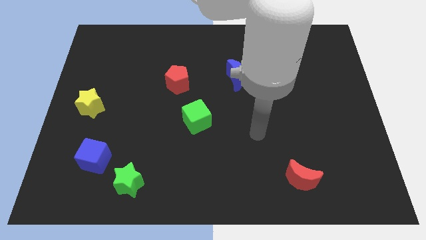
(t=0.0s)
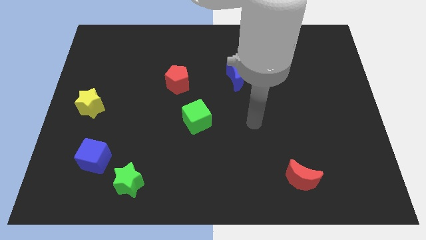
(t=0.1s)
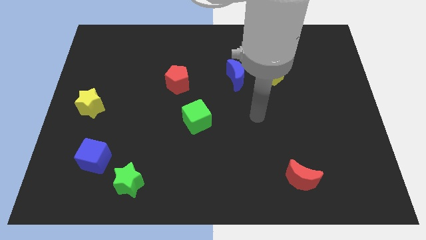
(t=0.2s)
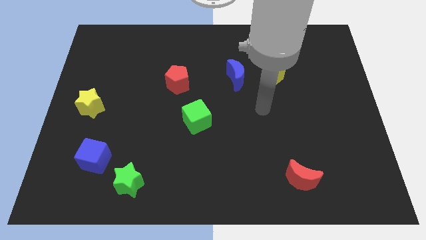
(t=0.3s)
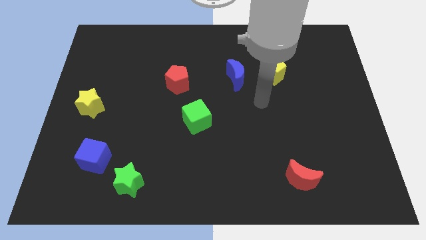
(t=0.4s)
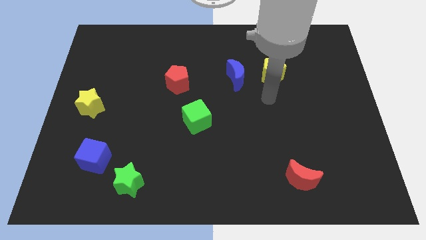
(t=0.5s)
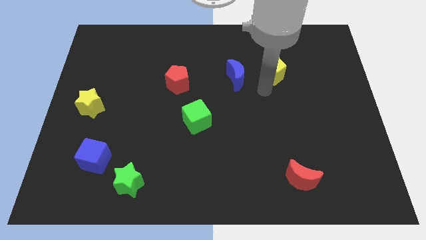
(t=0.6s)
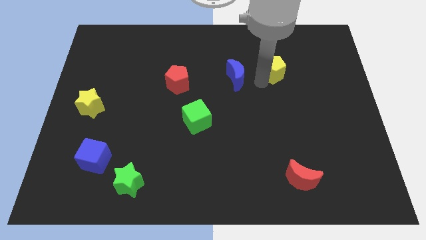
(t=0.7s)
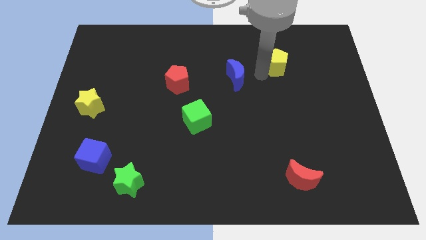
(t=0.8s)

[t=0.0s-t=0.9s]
move the blue moon away from the yellow pentagon

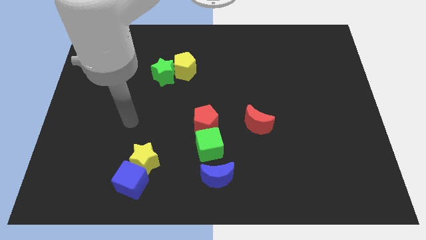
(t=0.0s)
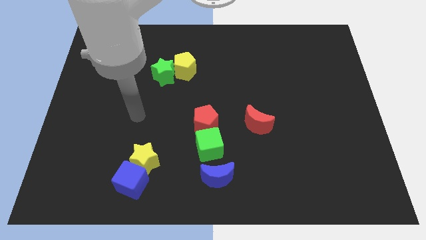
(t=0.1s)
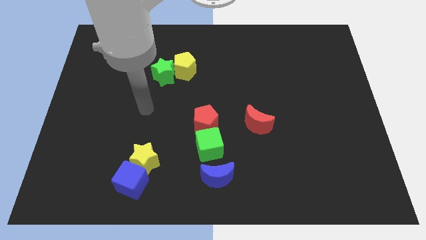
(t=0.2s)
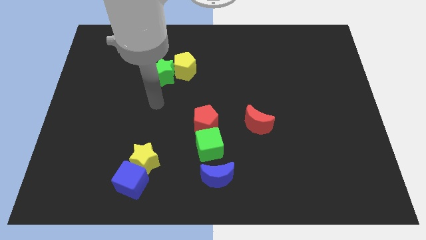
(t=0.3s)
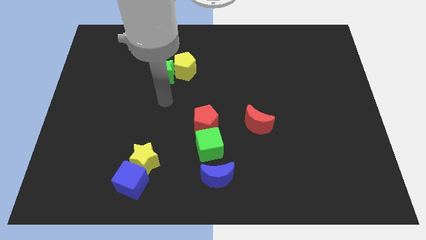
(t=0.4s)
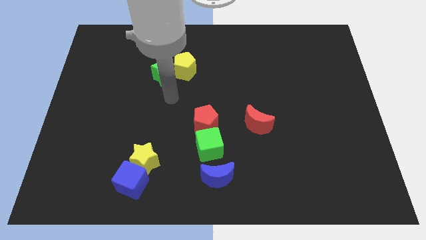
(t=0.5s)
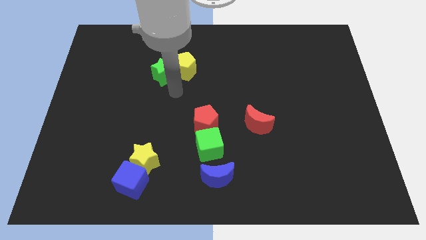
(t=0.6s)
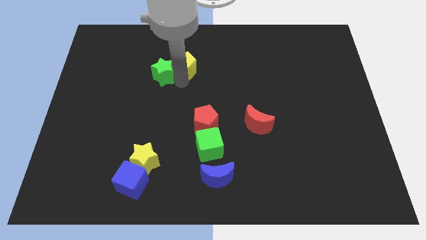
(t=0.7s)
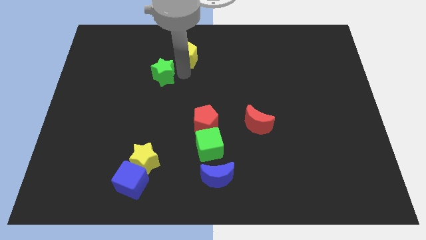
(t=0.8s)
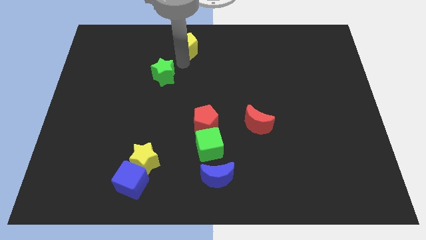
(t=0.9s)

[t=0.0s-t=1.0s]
separate the green star from the yellow pentagon

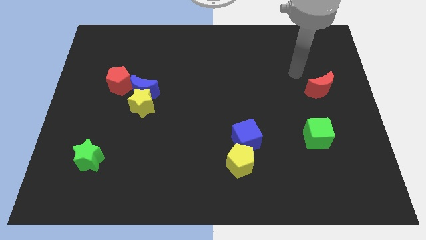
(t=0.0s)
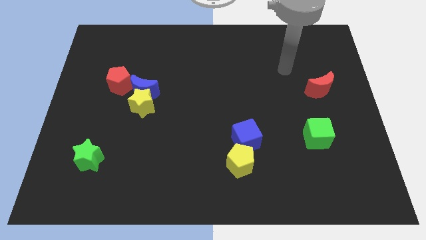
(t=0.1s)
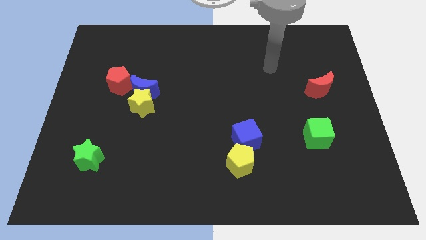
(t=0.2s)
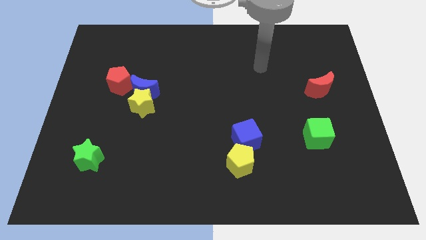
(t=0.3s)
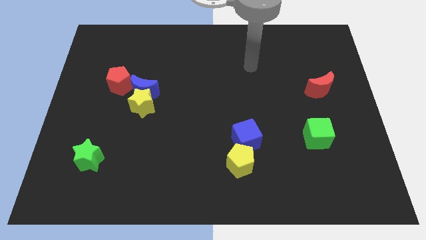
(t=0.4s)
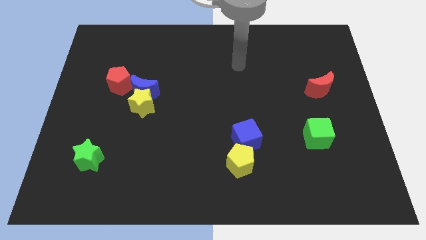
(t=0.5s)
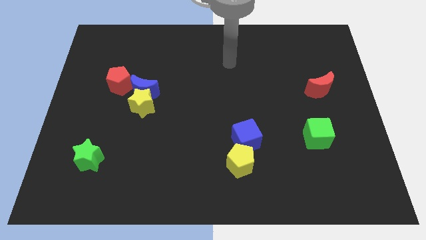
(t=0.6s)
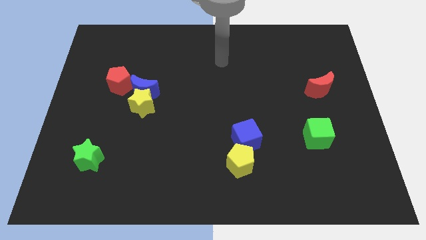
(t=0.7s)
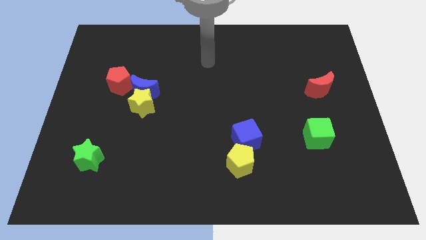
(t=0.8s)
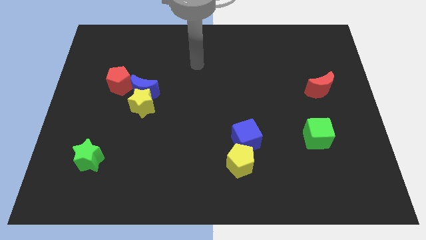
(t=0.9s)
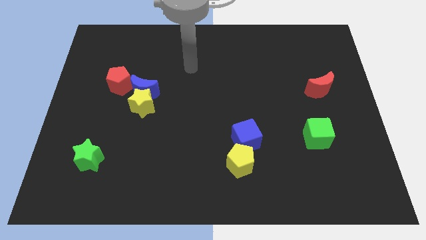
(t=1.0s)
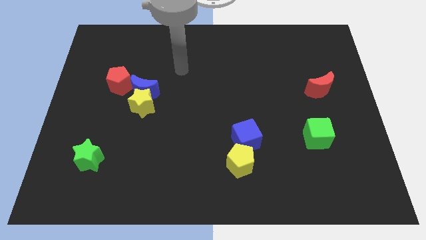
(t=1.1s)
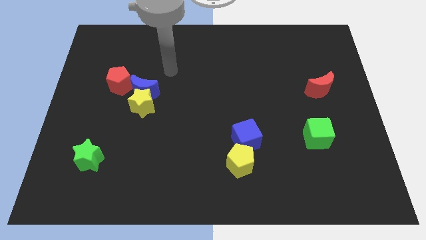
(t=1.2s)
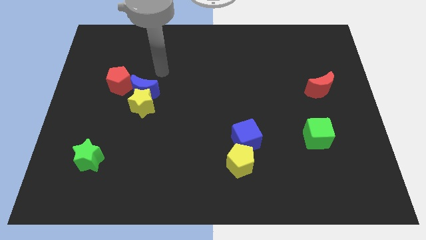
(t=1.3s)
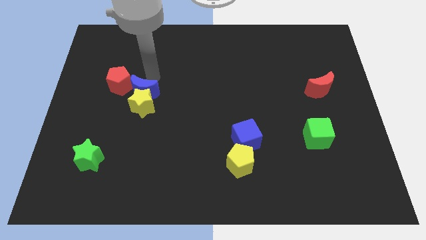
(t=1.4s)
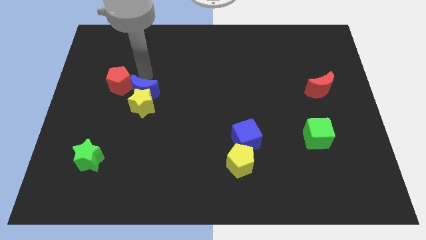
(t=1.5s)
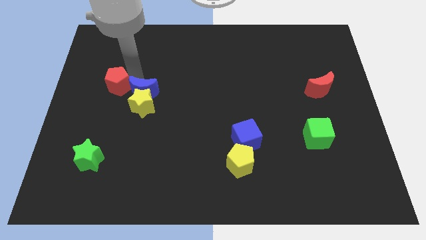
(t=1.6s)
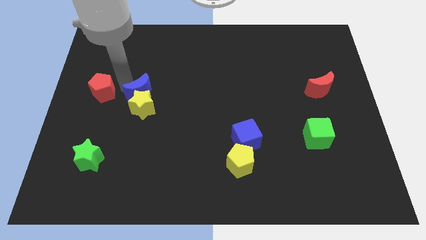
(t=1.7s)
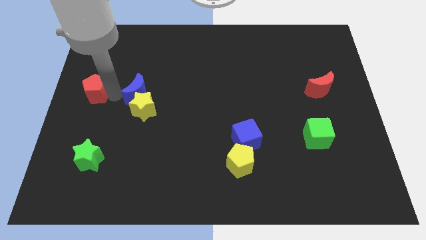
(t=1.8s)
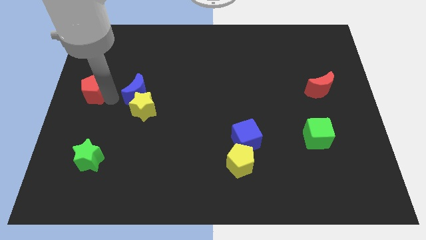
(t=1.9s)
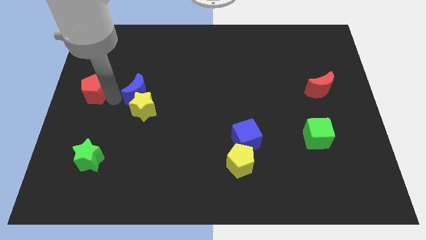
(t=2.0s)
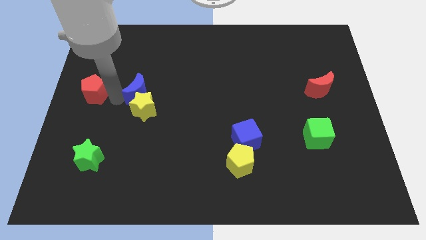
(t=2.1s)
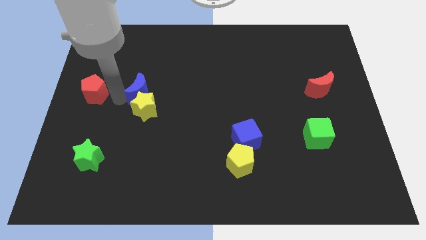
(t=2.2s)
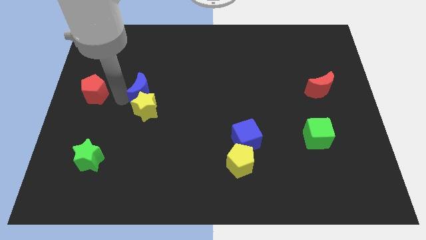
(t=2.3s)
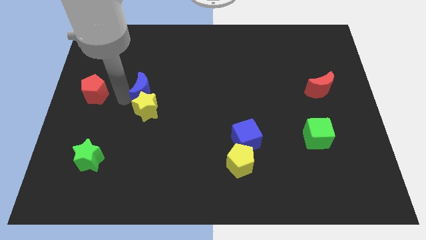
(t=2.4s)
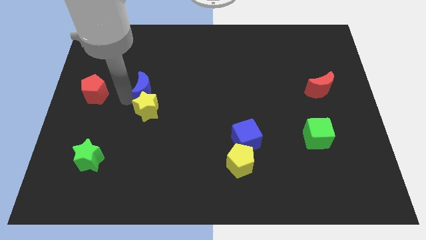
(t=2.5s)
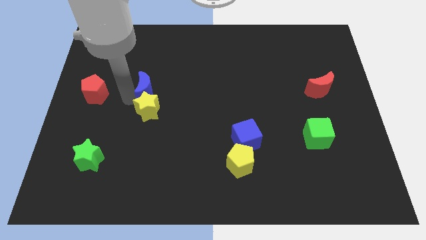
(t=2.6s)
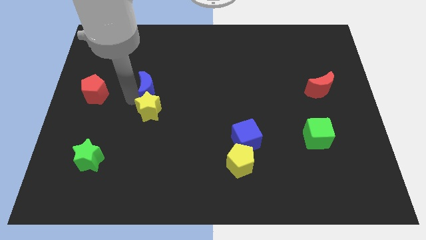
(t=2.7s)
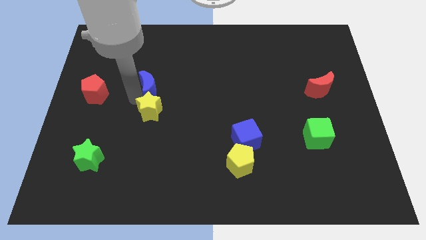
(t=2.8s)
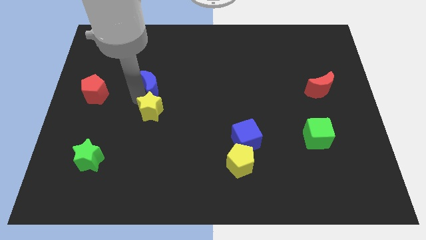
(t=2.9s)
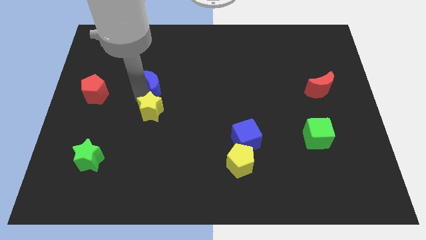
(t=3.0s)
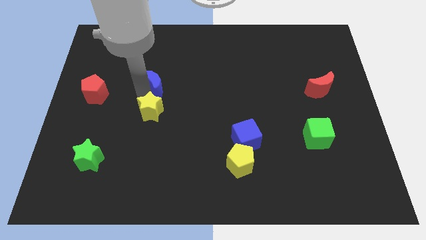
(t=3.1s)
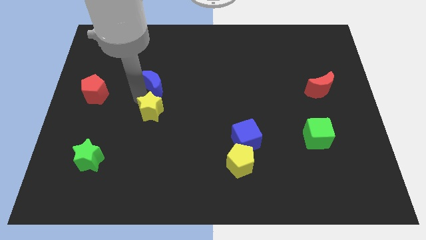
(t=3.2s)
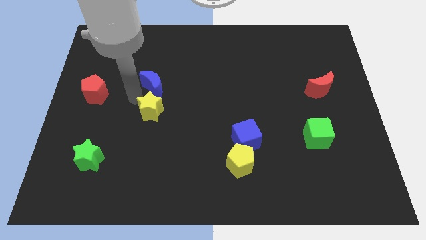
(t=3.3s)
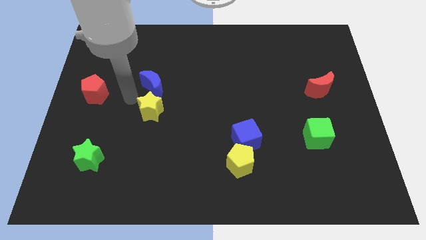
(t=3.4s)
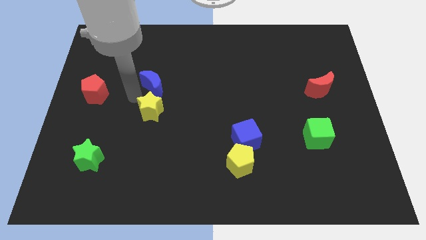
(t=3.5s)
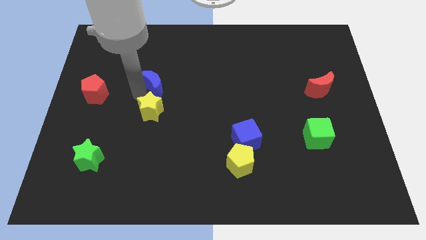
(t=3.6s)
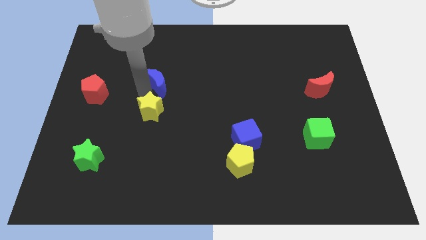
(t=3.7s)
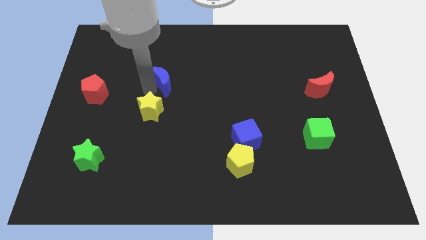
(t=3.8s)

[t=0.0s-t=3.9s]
move the blue moon away from the yellow star and red pentagon

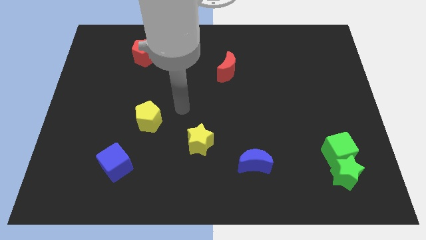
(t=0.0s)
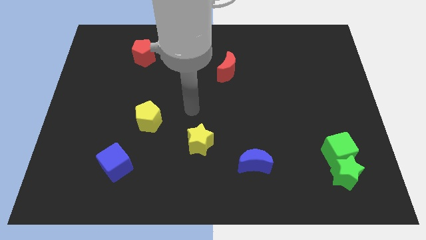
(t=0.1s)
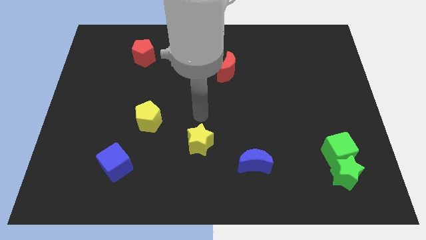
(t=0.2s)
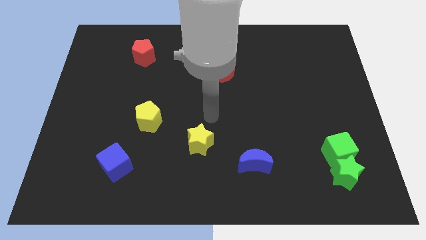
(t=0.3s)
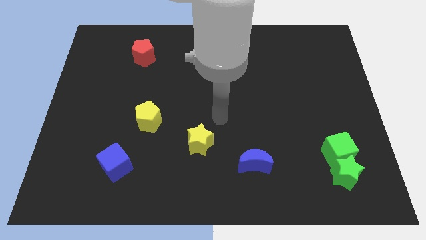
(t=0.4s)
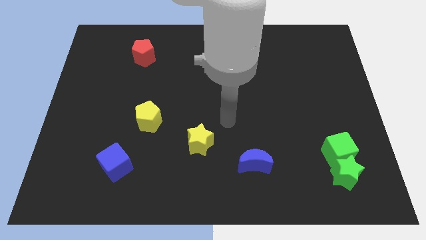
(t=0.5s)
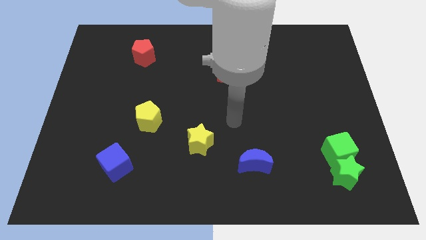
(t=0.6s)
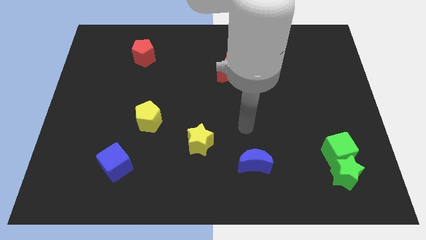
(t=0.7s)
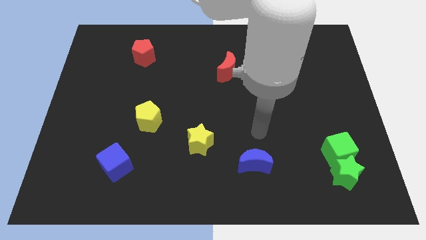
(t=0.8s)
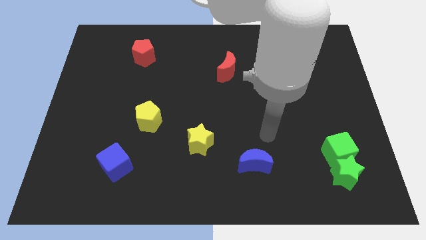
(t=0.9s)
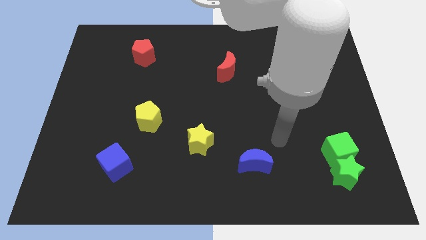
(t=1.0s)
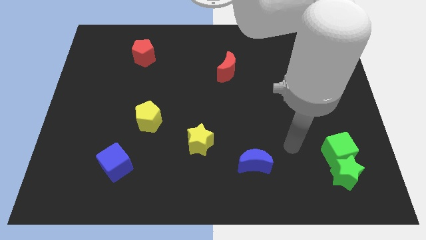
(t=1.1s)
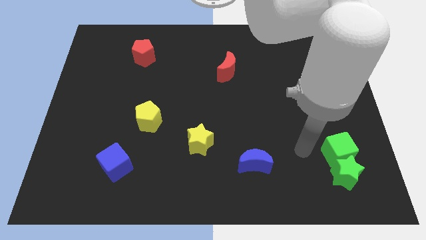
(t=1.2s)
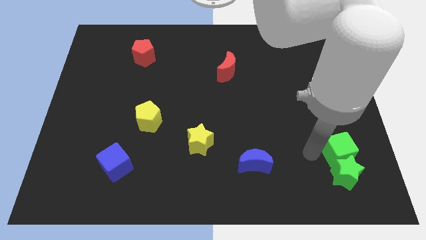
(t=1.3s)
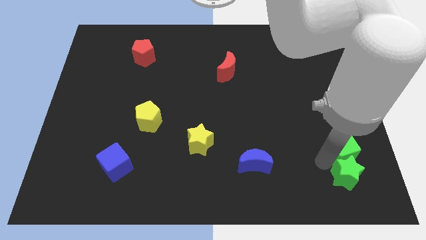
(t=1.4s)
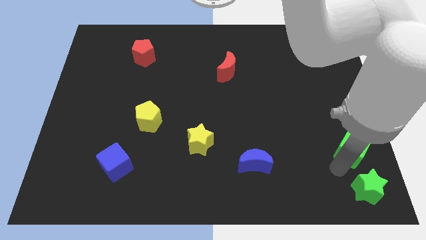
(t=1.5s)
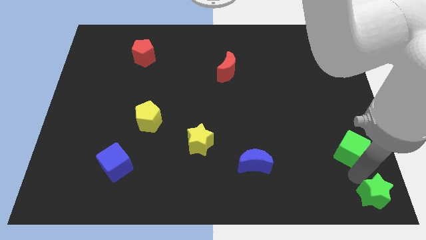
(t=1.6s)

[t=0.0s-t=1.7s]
separate the green cube from the green star

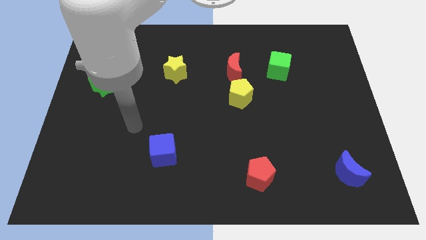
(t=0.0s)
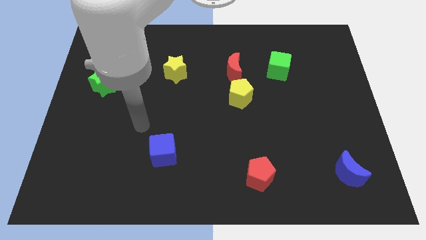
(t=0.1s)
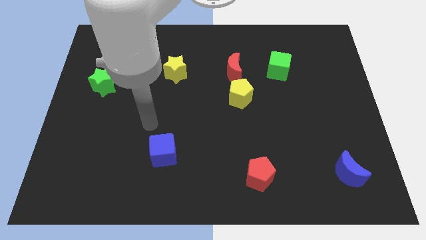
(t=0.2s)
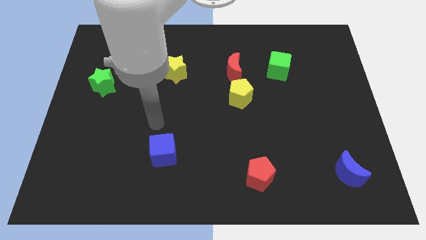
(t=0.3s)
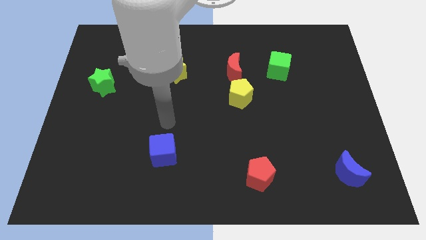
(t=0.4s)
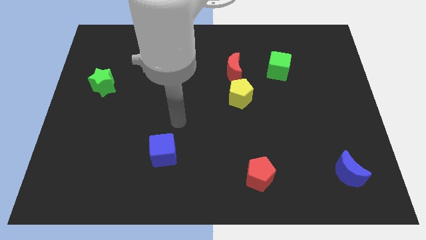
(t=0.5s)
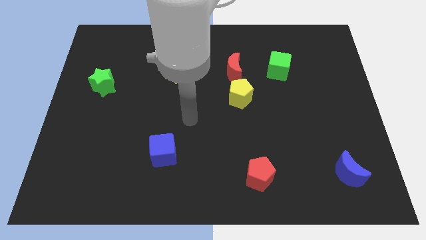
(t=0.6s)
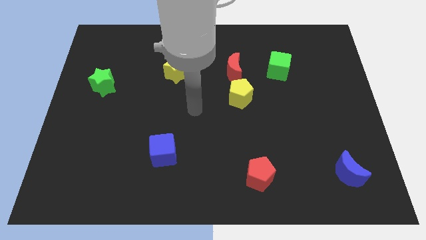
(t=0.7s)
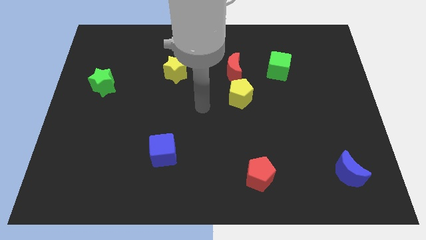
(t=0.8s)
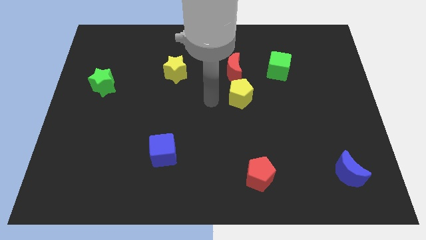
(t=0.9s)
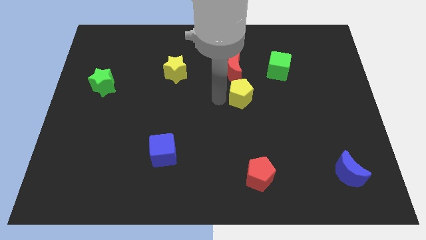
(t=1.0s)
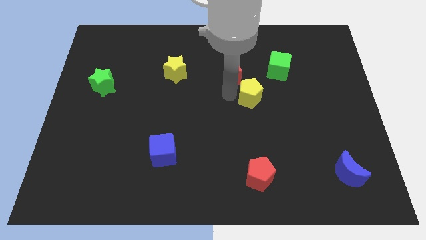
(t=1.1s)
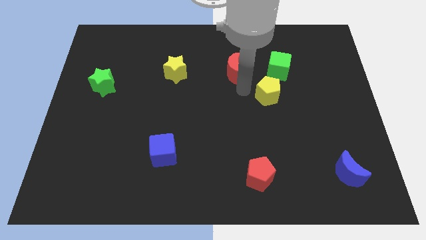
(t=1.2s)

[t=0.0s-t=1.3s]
separate the red moon from the yellow pentagon

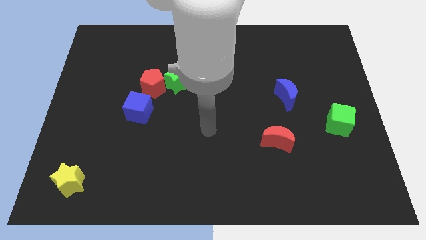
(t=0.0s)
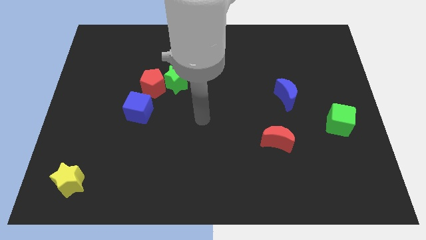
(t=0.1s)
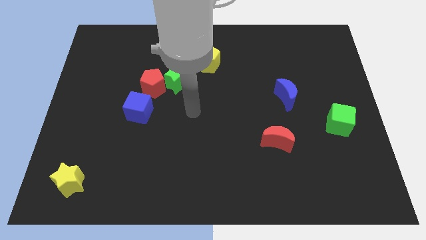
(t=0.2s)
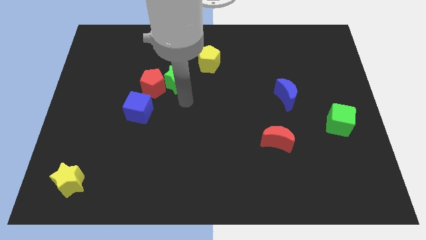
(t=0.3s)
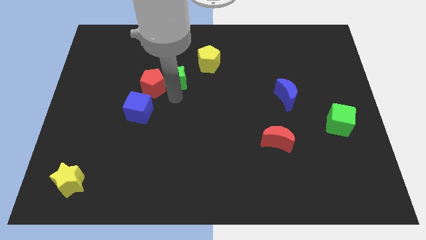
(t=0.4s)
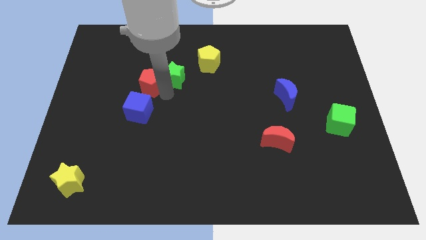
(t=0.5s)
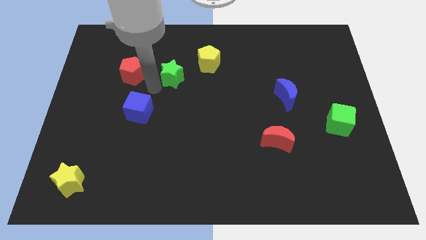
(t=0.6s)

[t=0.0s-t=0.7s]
pull the green star apart from the red pentagon

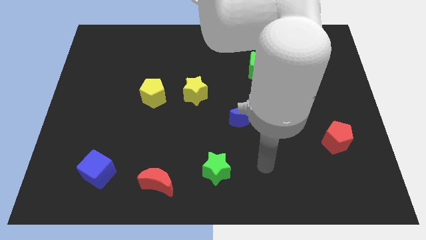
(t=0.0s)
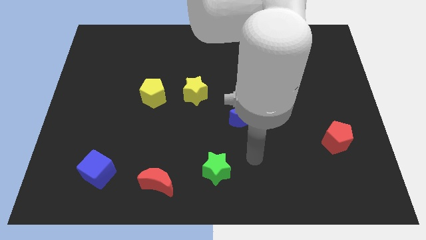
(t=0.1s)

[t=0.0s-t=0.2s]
pull the yellow star apart from the yellow pentagon
